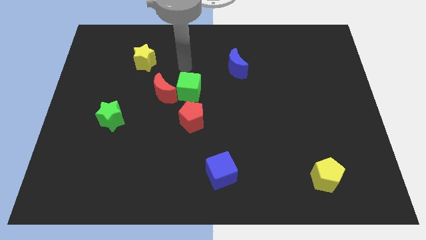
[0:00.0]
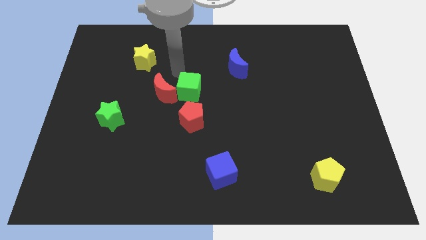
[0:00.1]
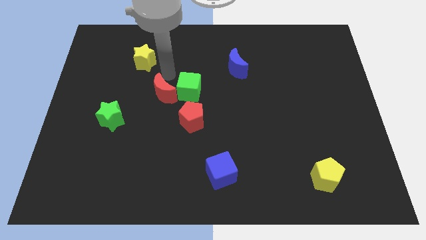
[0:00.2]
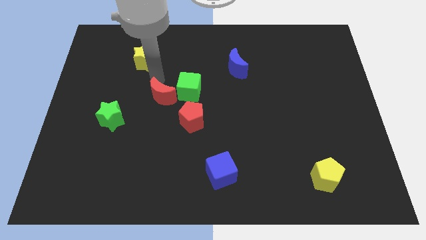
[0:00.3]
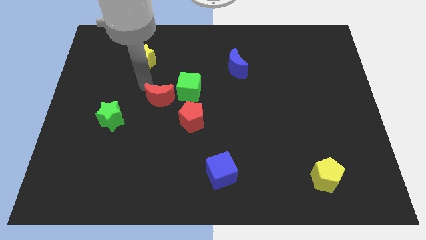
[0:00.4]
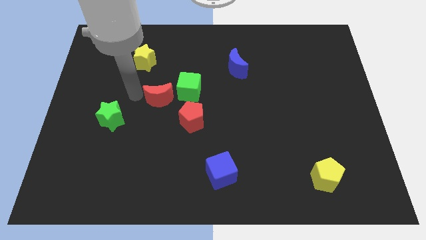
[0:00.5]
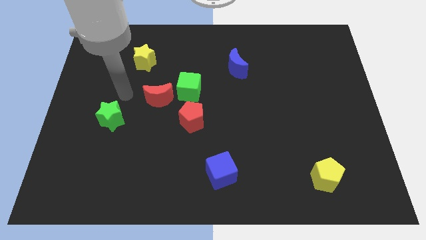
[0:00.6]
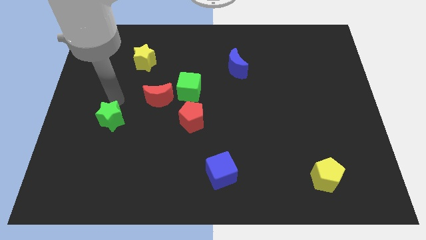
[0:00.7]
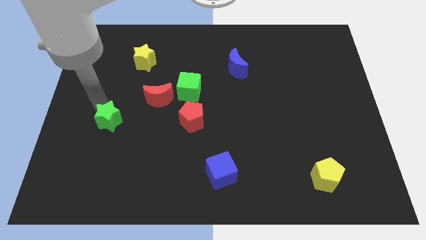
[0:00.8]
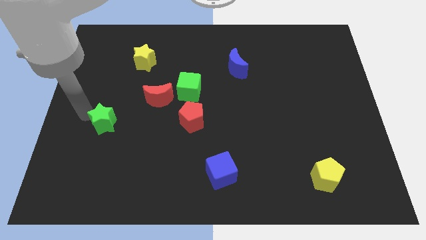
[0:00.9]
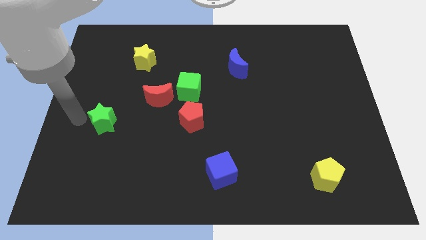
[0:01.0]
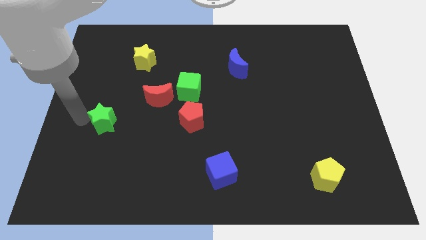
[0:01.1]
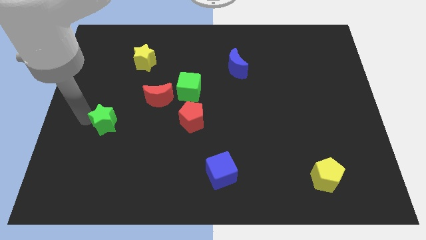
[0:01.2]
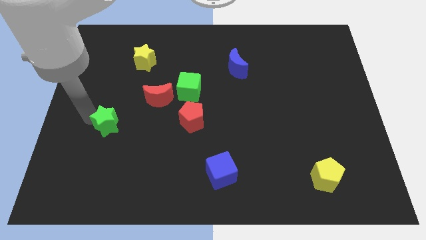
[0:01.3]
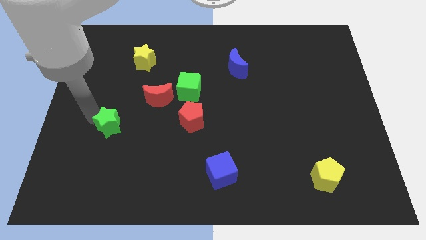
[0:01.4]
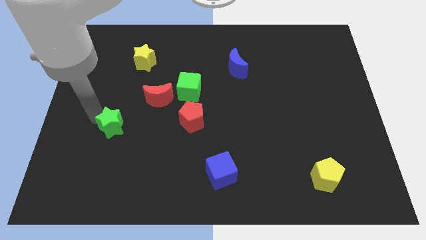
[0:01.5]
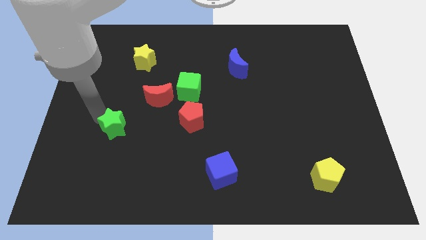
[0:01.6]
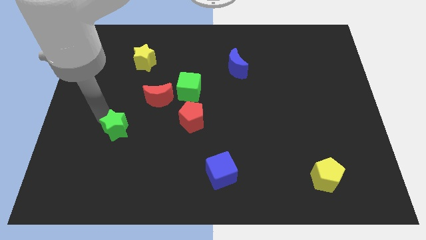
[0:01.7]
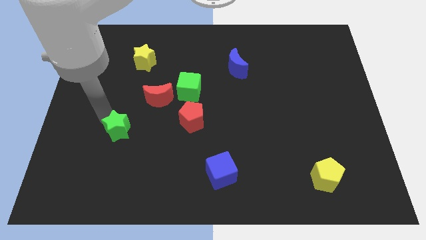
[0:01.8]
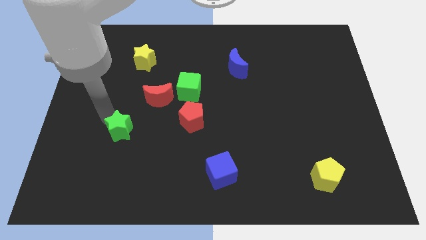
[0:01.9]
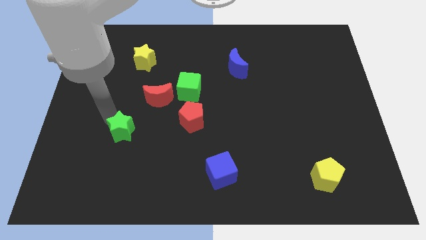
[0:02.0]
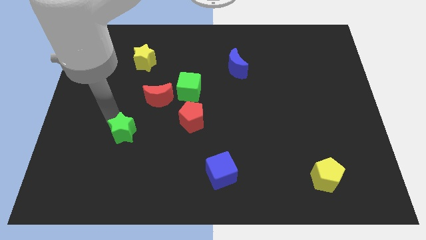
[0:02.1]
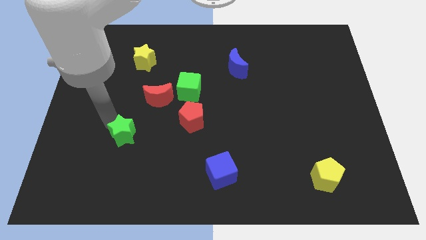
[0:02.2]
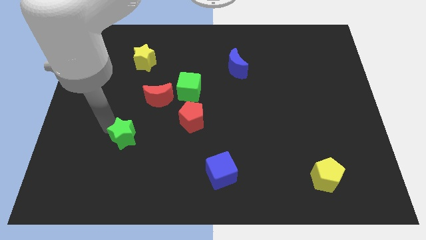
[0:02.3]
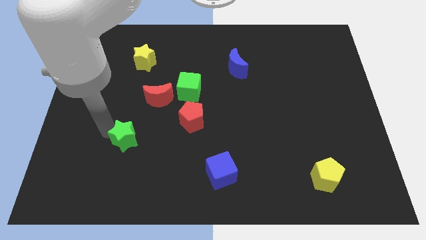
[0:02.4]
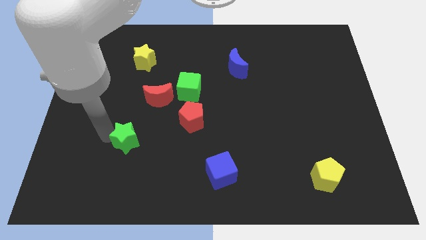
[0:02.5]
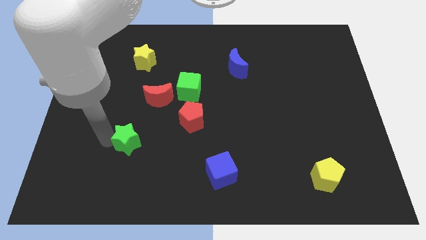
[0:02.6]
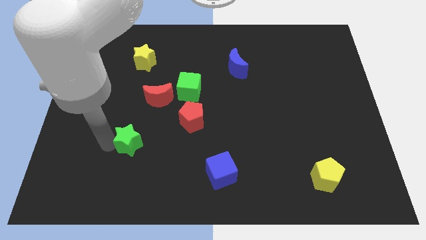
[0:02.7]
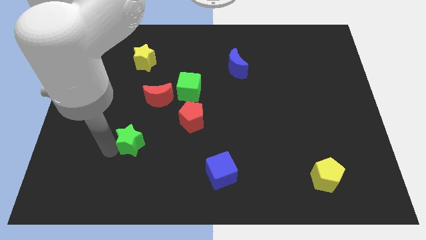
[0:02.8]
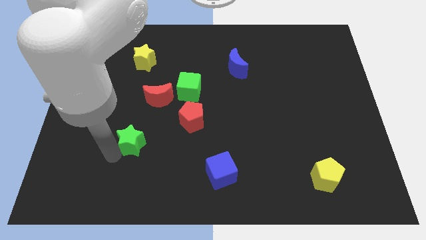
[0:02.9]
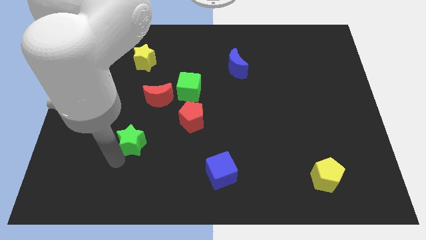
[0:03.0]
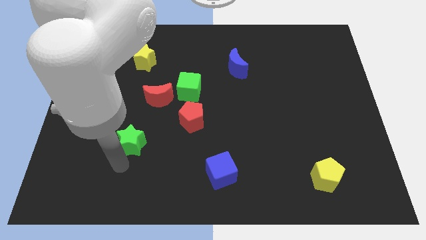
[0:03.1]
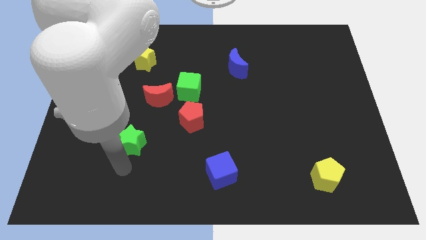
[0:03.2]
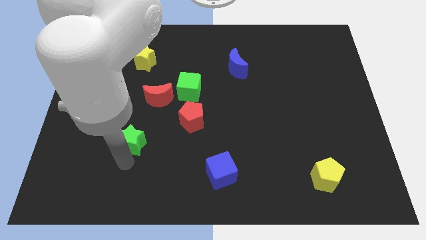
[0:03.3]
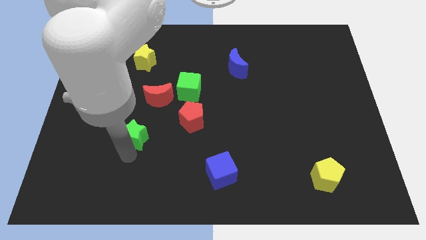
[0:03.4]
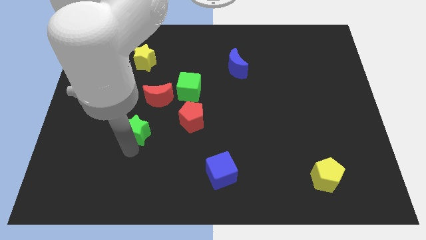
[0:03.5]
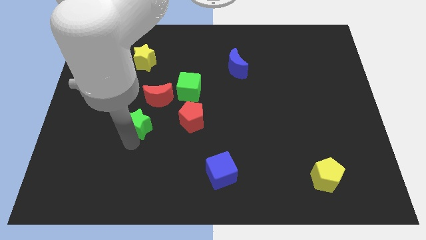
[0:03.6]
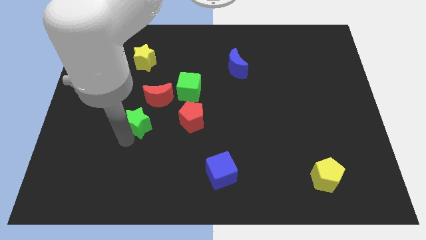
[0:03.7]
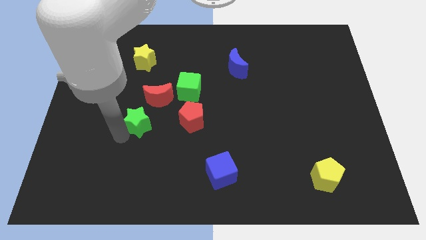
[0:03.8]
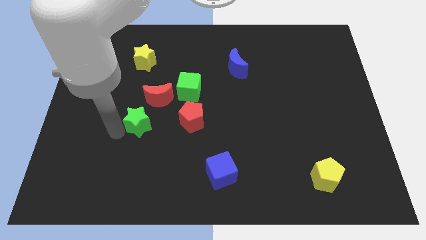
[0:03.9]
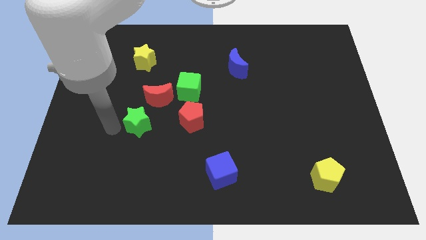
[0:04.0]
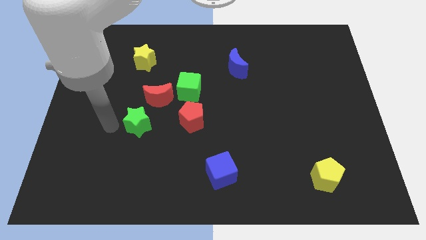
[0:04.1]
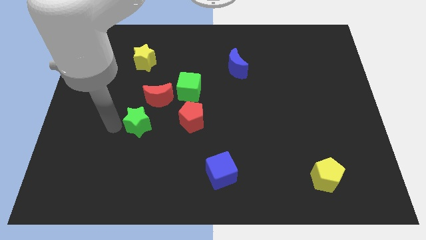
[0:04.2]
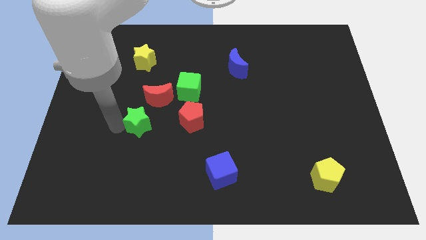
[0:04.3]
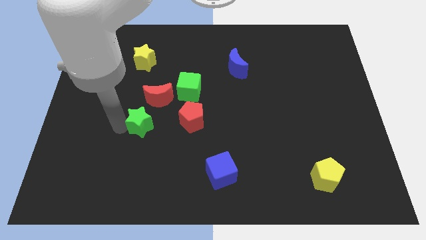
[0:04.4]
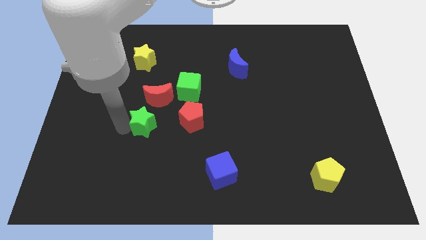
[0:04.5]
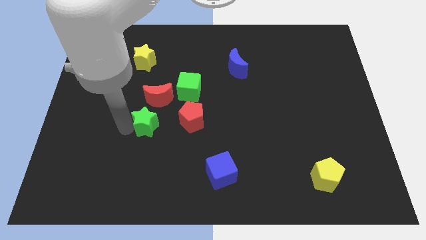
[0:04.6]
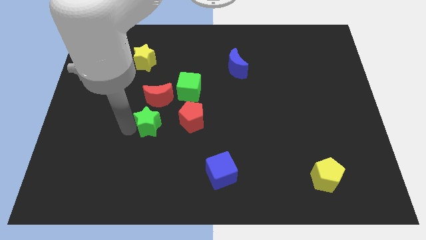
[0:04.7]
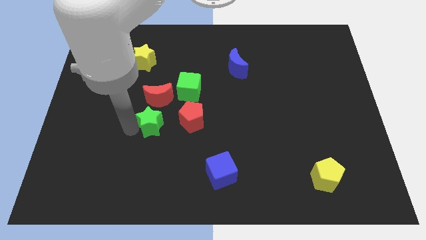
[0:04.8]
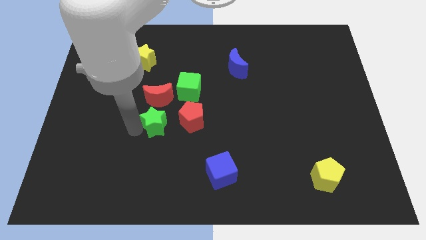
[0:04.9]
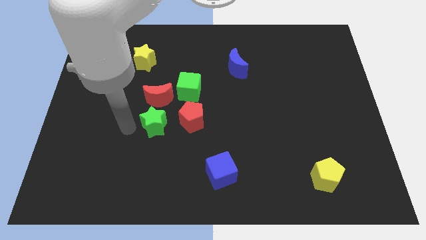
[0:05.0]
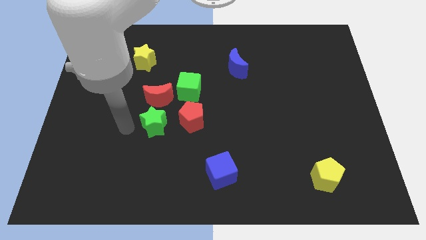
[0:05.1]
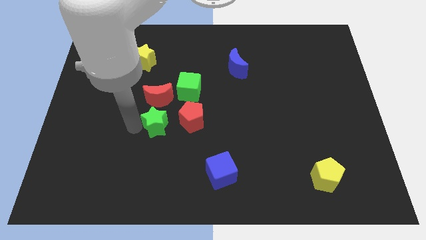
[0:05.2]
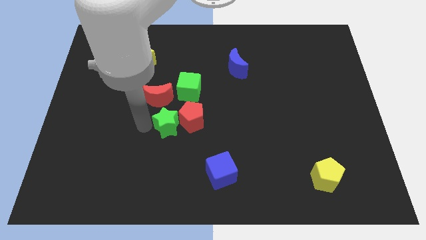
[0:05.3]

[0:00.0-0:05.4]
slide the green star towards the red pentagon
